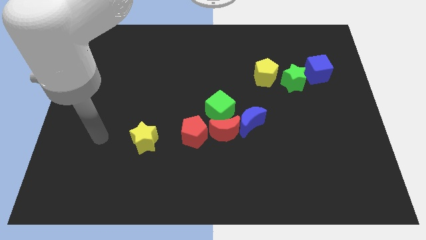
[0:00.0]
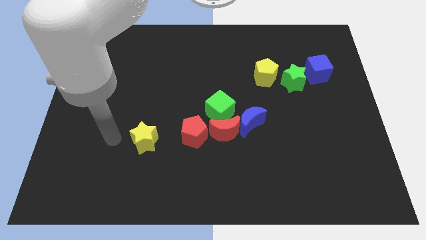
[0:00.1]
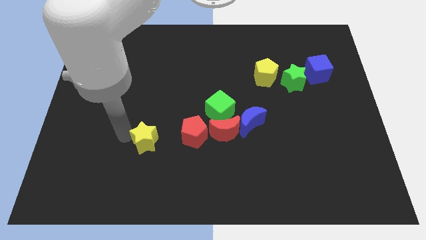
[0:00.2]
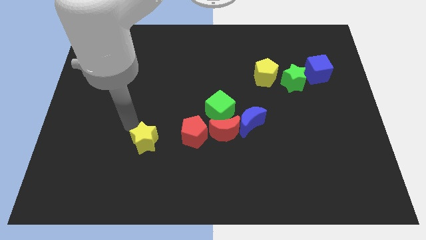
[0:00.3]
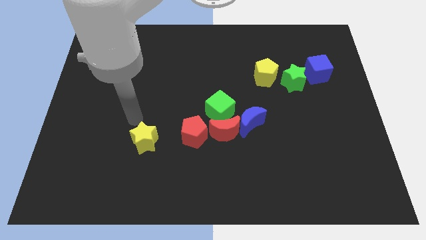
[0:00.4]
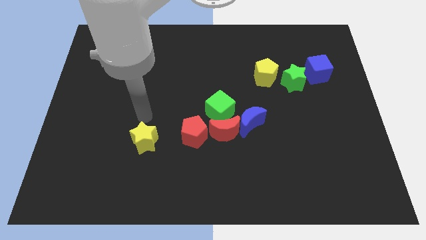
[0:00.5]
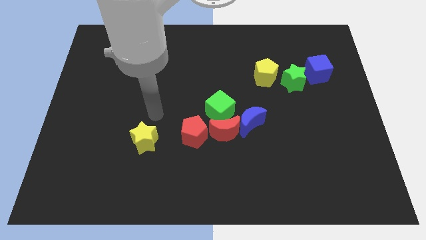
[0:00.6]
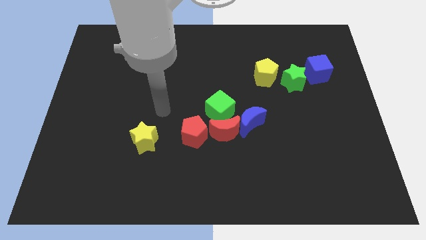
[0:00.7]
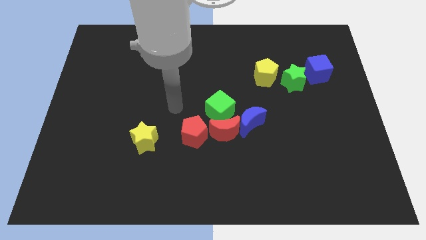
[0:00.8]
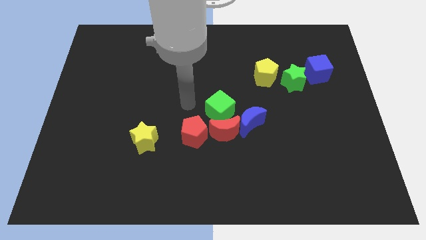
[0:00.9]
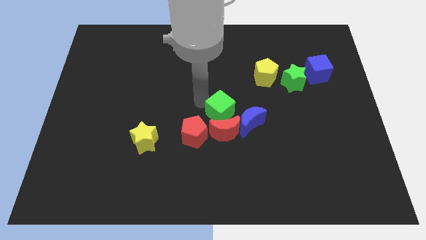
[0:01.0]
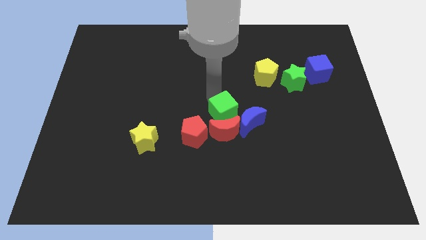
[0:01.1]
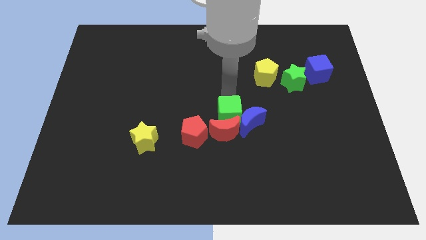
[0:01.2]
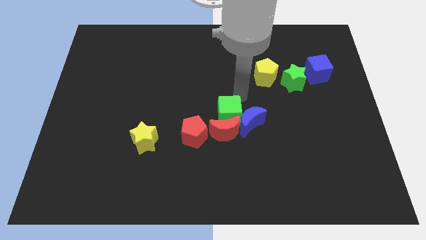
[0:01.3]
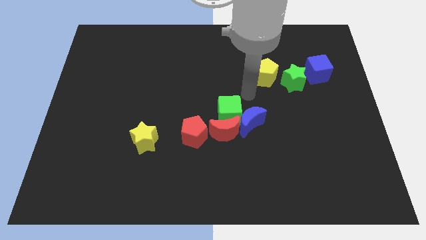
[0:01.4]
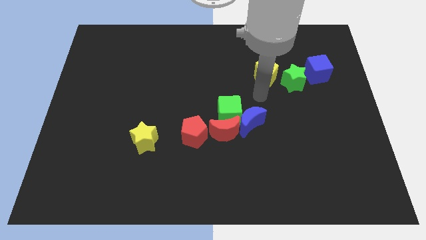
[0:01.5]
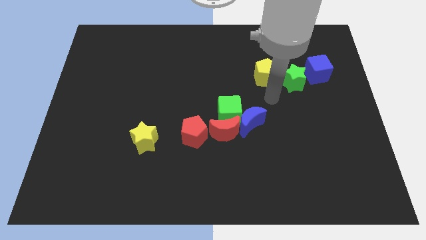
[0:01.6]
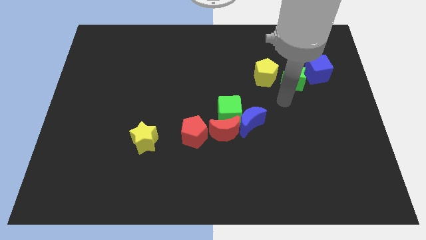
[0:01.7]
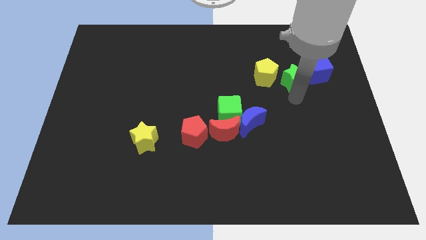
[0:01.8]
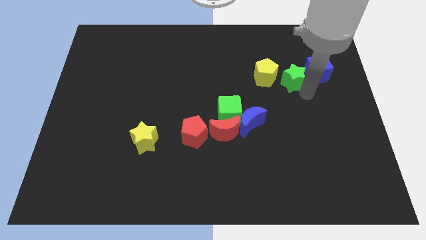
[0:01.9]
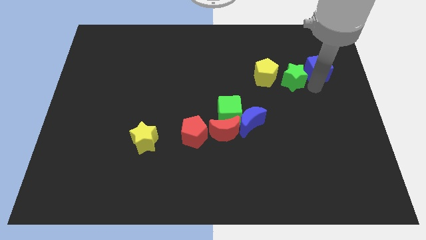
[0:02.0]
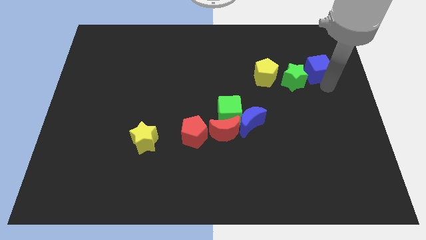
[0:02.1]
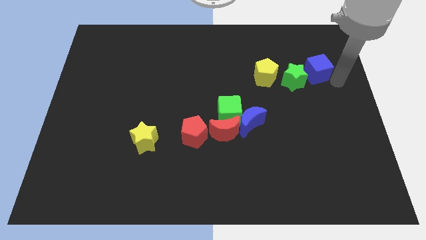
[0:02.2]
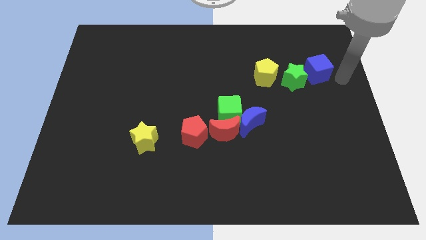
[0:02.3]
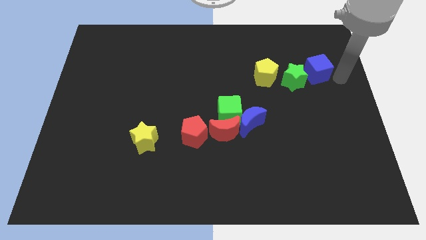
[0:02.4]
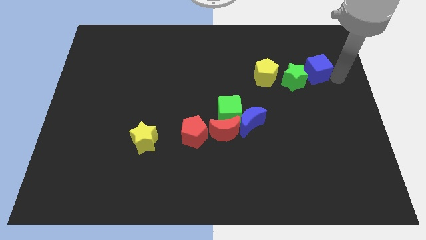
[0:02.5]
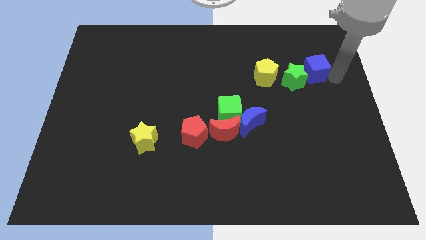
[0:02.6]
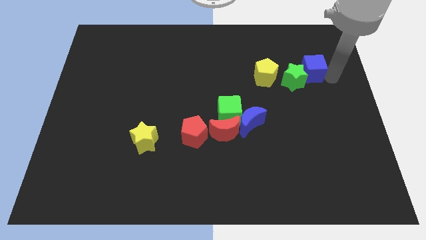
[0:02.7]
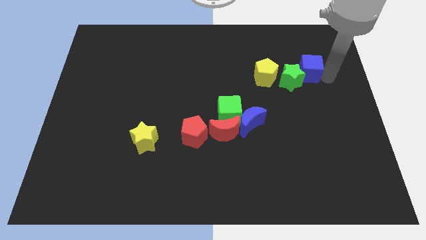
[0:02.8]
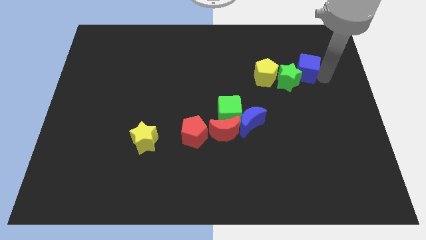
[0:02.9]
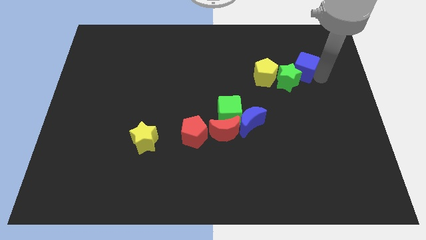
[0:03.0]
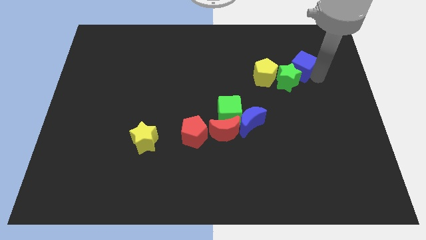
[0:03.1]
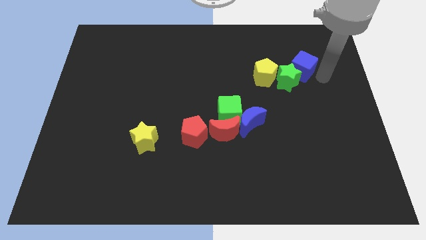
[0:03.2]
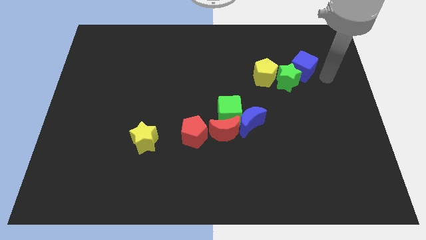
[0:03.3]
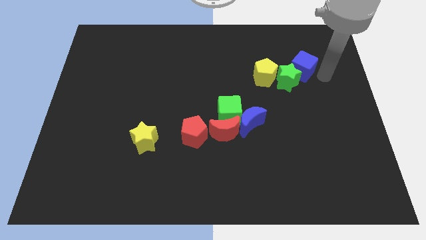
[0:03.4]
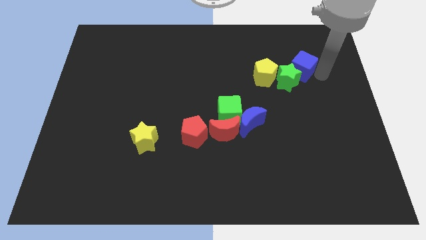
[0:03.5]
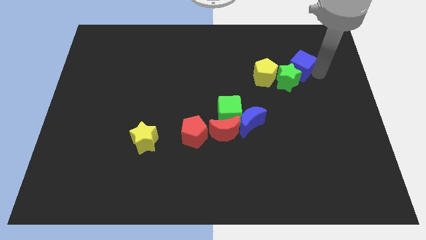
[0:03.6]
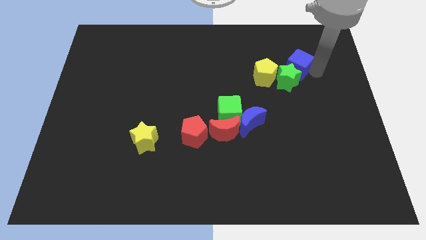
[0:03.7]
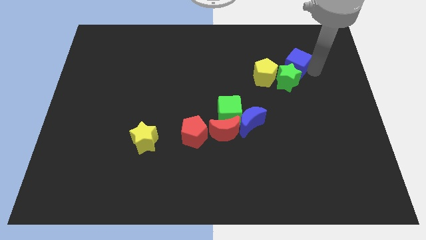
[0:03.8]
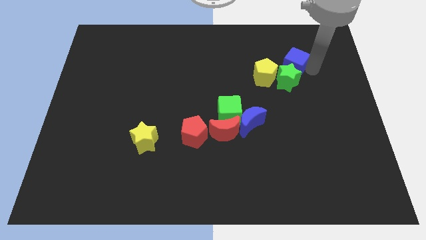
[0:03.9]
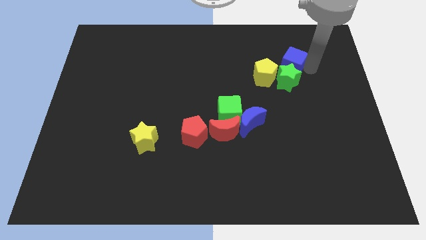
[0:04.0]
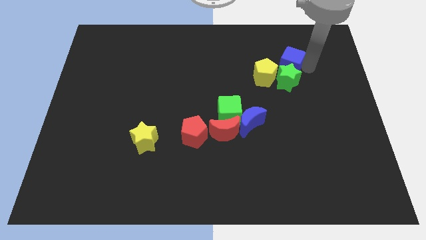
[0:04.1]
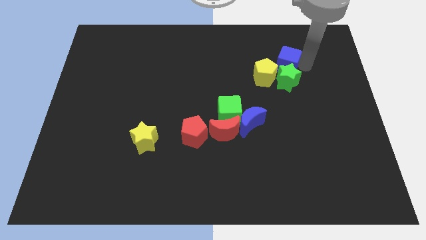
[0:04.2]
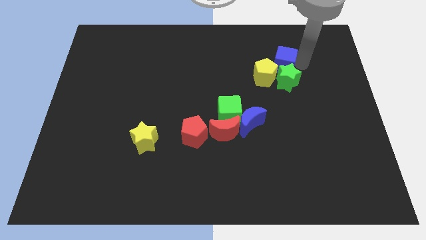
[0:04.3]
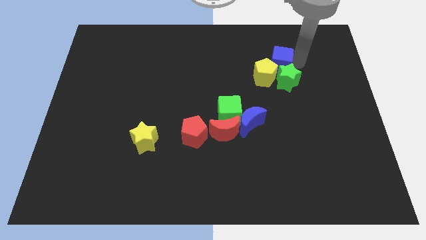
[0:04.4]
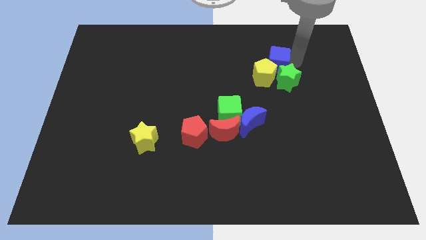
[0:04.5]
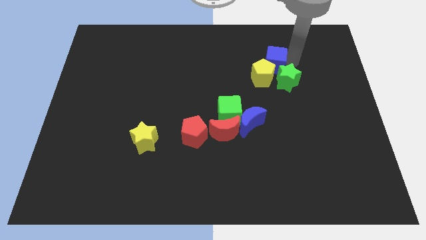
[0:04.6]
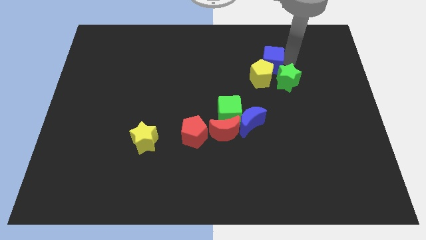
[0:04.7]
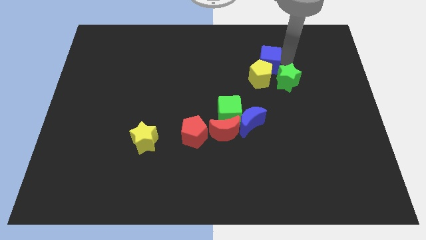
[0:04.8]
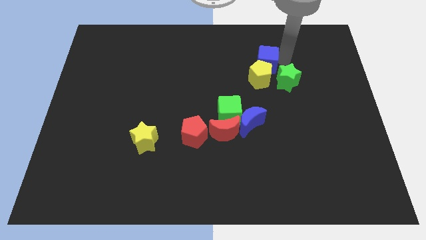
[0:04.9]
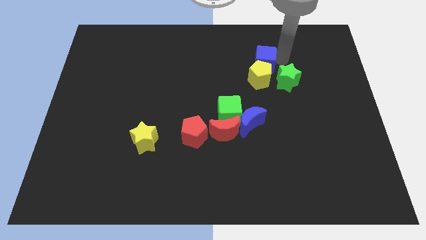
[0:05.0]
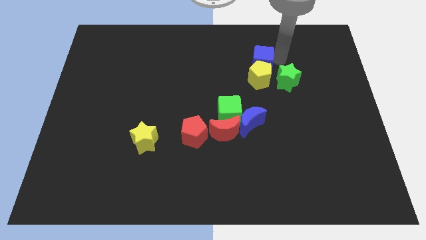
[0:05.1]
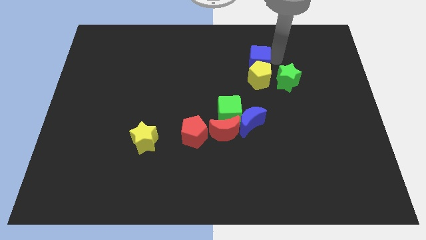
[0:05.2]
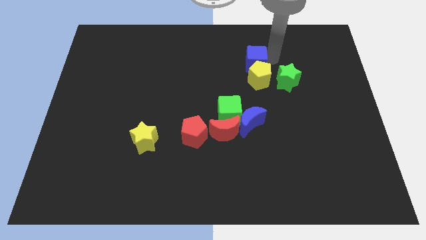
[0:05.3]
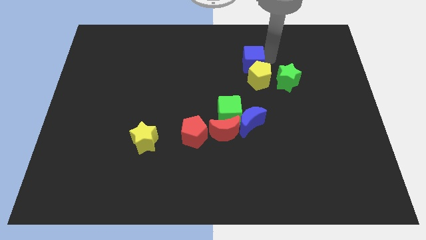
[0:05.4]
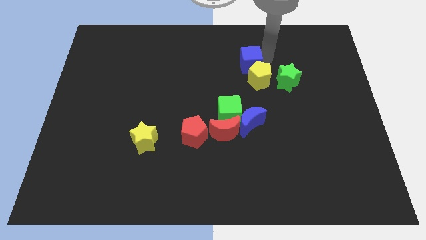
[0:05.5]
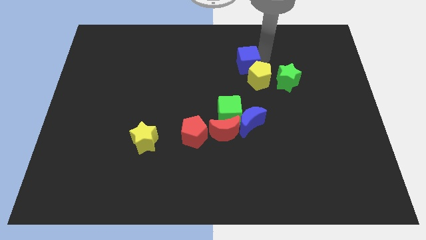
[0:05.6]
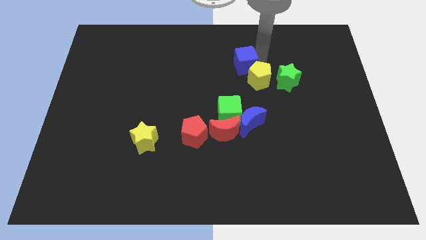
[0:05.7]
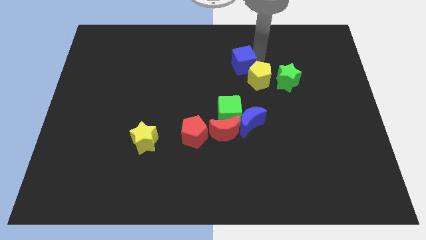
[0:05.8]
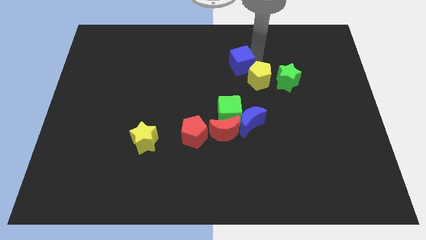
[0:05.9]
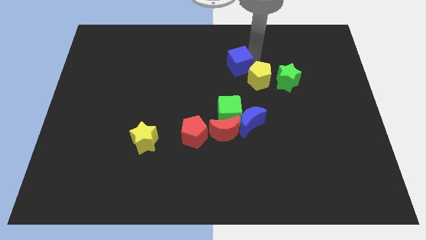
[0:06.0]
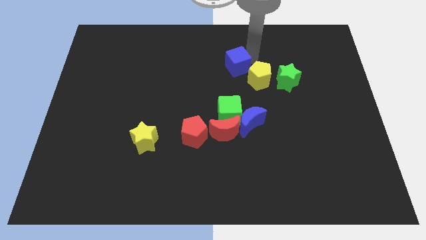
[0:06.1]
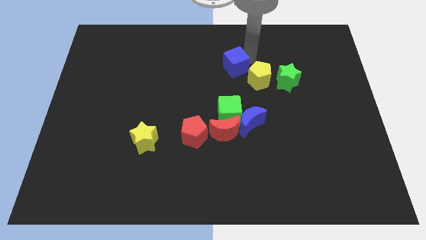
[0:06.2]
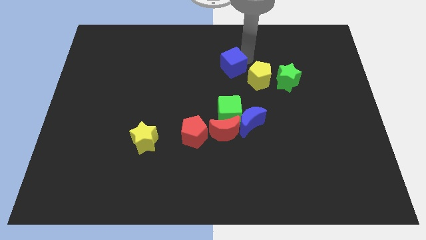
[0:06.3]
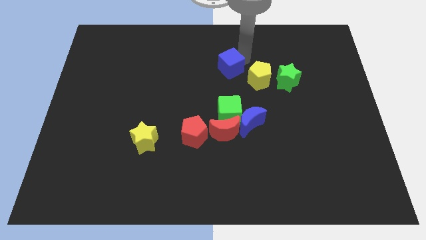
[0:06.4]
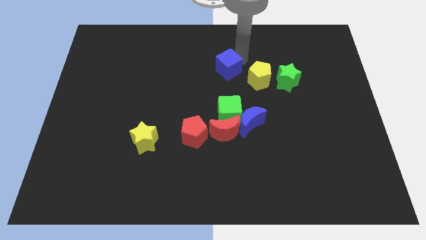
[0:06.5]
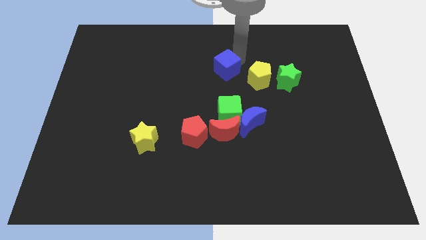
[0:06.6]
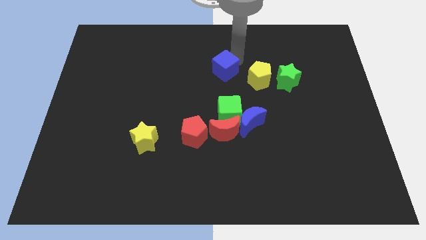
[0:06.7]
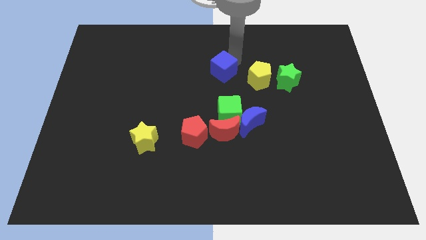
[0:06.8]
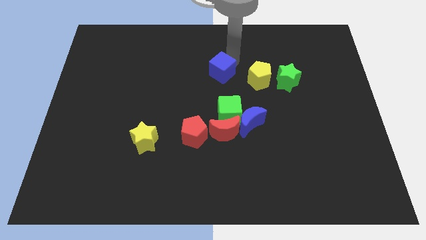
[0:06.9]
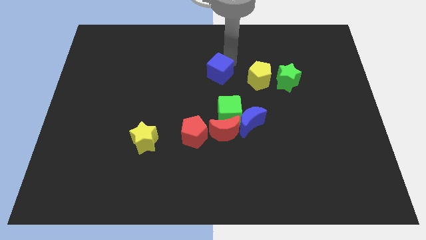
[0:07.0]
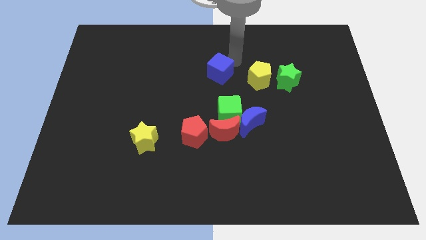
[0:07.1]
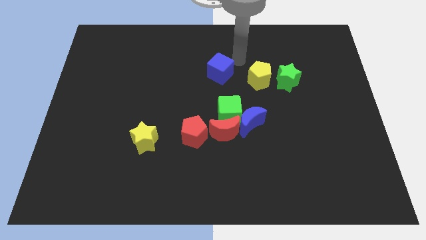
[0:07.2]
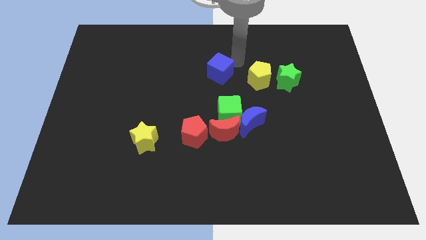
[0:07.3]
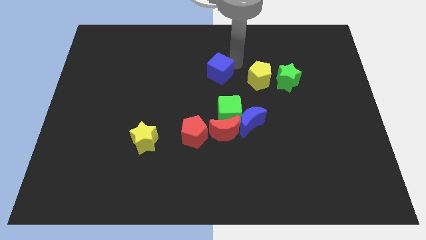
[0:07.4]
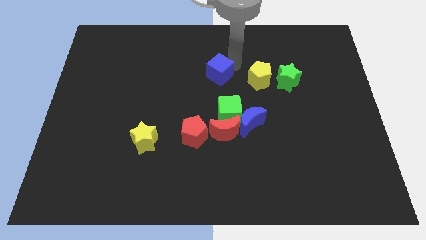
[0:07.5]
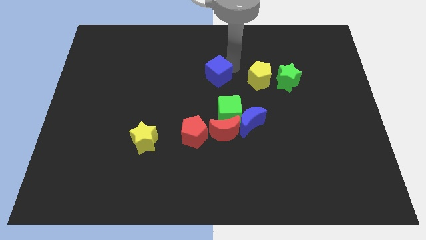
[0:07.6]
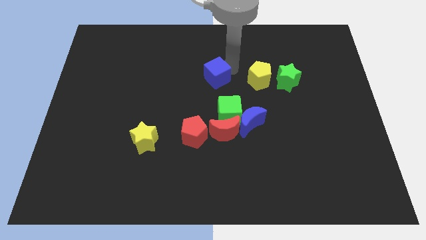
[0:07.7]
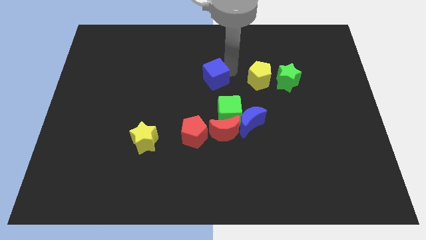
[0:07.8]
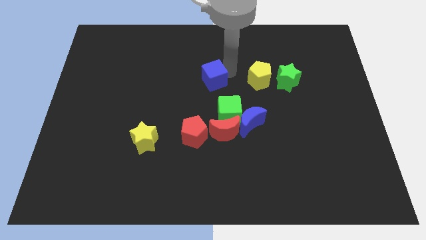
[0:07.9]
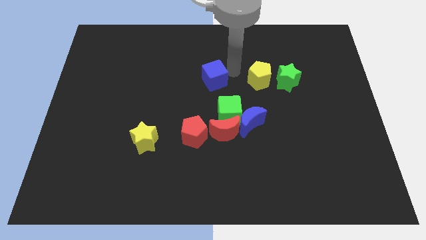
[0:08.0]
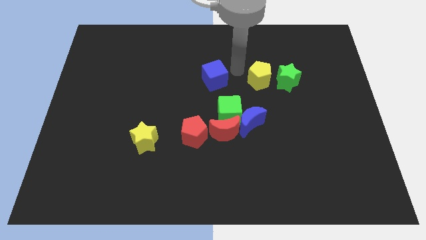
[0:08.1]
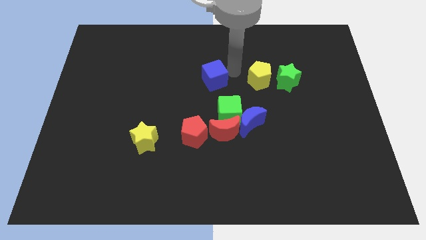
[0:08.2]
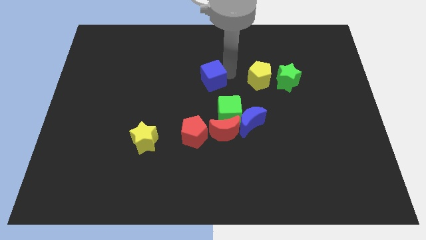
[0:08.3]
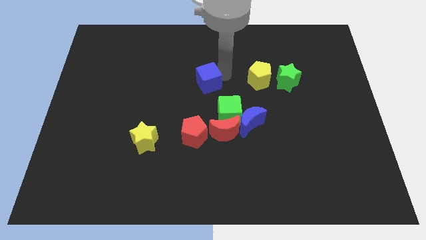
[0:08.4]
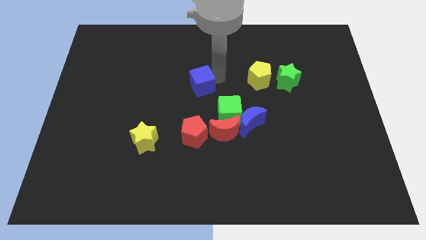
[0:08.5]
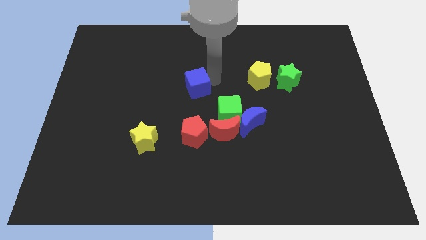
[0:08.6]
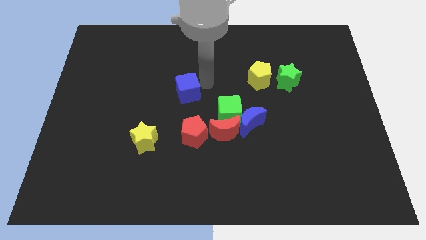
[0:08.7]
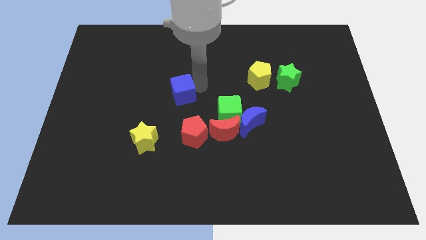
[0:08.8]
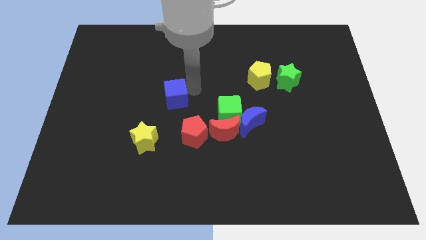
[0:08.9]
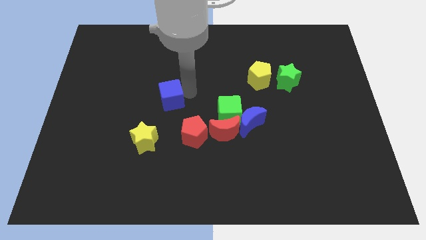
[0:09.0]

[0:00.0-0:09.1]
move the blue cube to the top side of the yellow star
